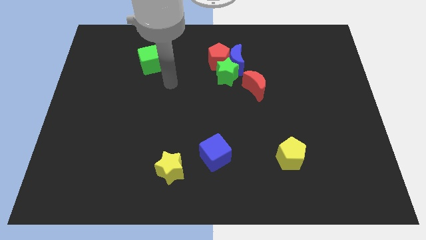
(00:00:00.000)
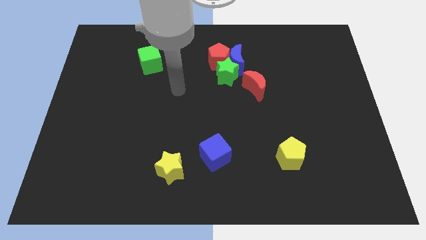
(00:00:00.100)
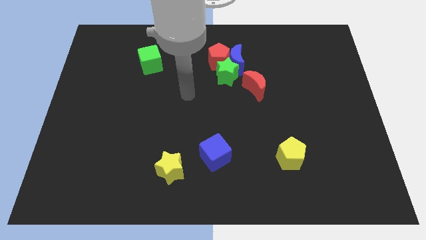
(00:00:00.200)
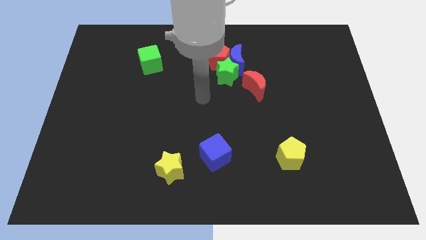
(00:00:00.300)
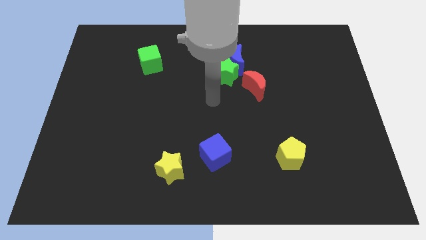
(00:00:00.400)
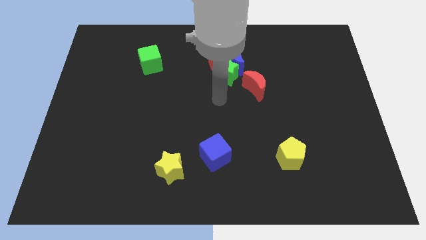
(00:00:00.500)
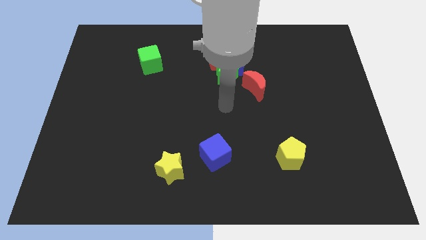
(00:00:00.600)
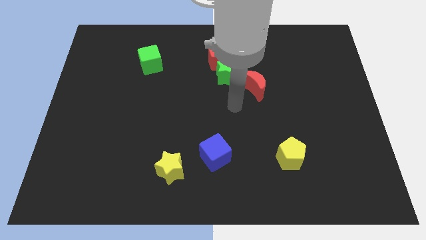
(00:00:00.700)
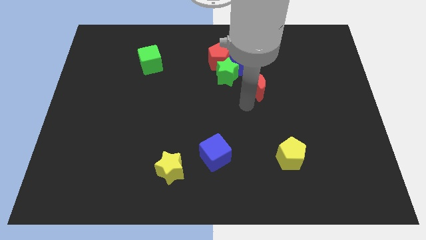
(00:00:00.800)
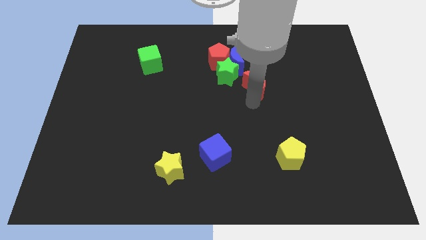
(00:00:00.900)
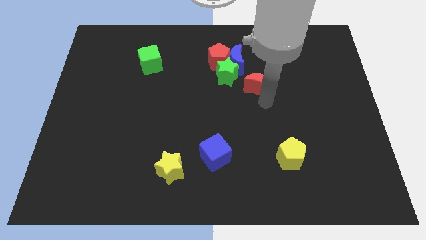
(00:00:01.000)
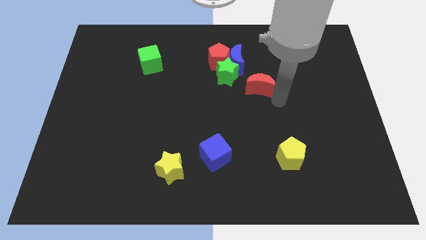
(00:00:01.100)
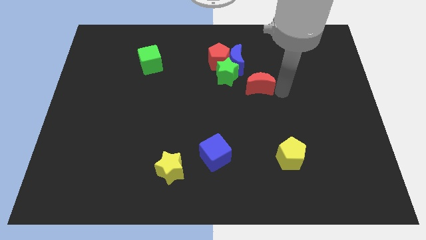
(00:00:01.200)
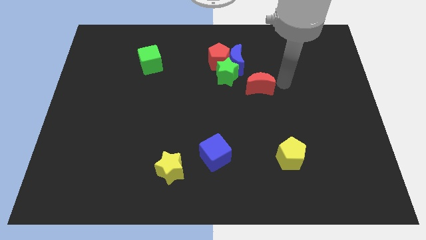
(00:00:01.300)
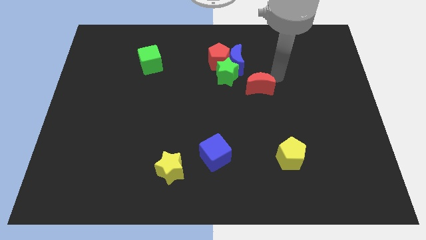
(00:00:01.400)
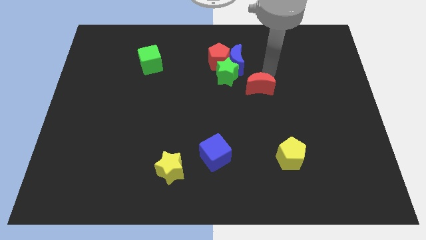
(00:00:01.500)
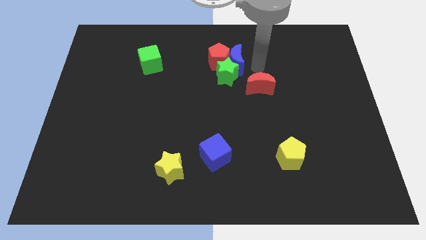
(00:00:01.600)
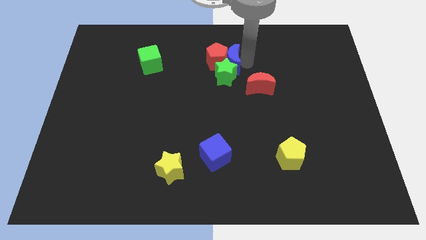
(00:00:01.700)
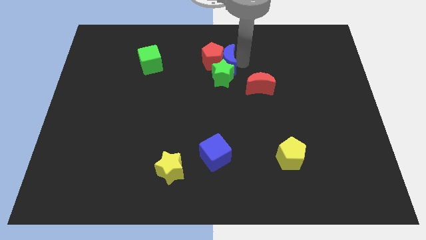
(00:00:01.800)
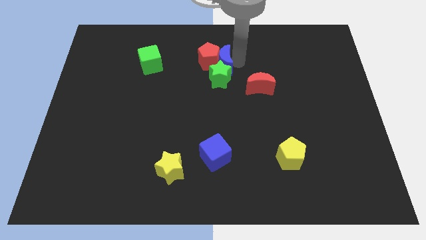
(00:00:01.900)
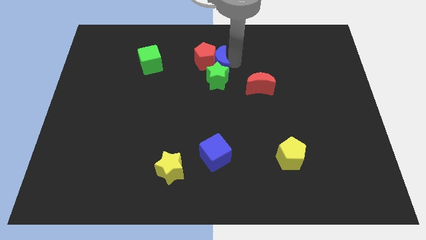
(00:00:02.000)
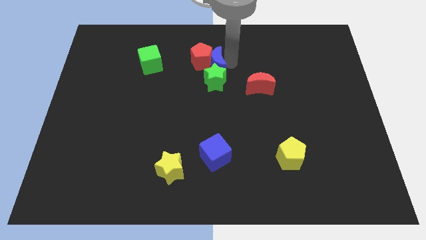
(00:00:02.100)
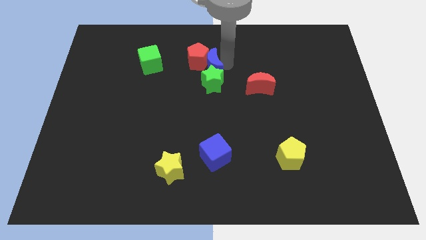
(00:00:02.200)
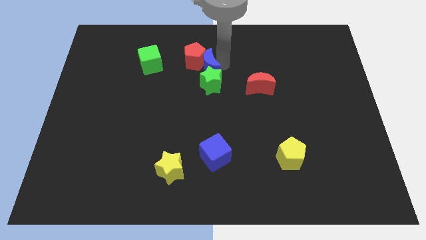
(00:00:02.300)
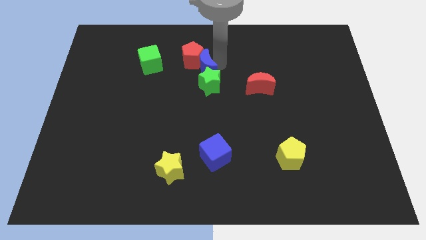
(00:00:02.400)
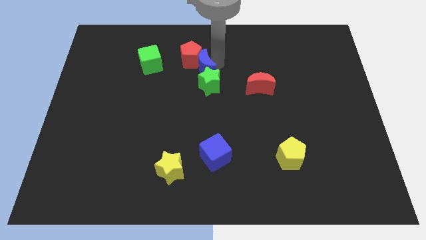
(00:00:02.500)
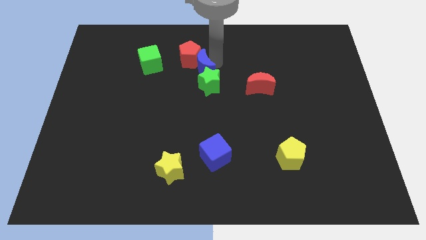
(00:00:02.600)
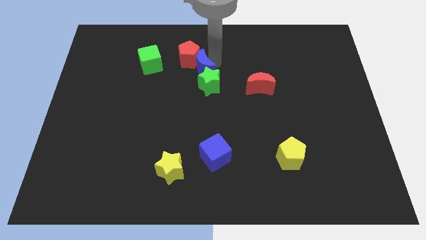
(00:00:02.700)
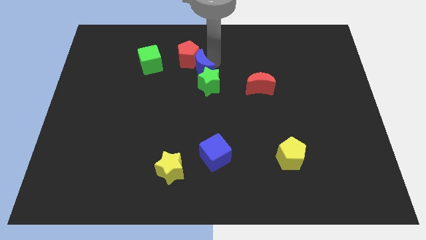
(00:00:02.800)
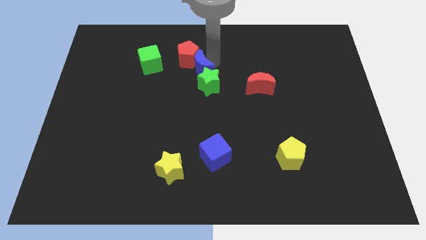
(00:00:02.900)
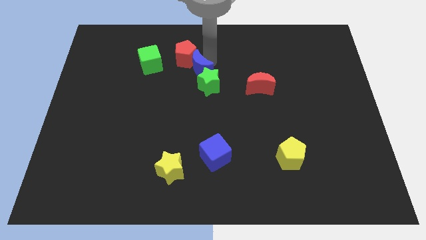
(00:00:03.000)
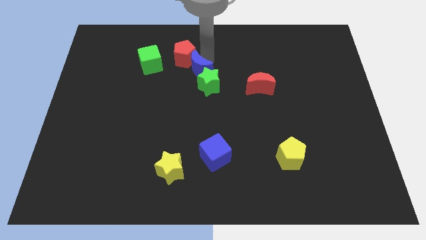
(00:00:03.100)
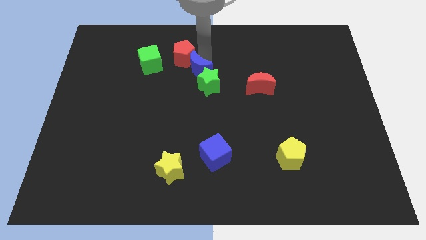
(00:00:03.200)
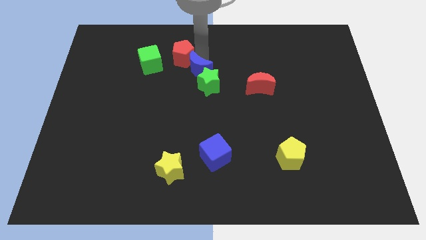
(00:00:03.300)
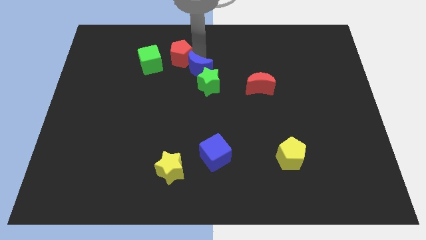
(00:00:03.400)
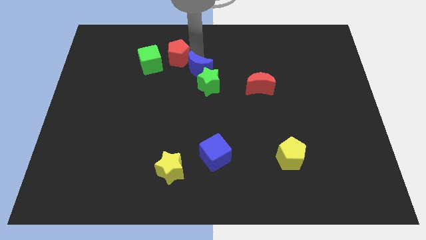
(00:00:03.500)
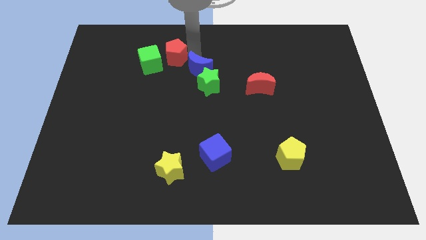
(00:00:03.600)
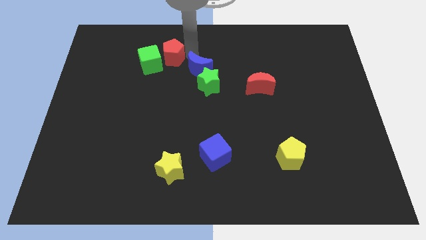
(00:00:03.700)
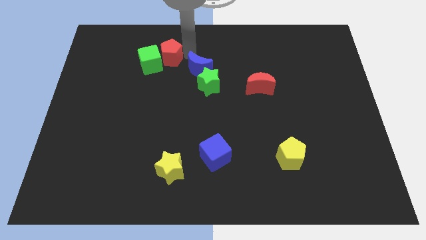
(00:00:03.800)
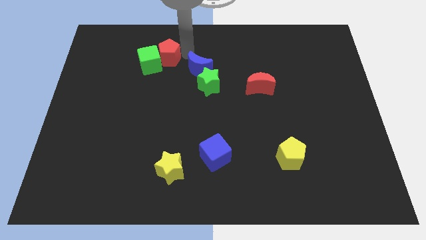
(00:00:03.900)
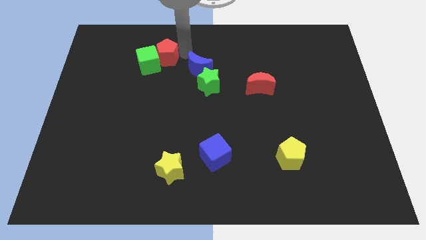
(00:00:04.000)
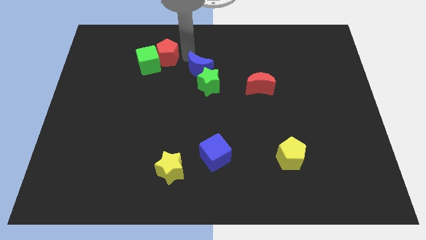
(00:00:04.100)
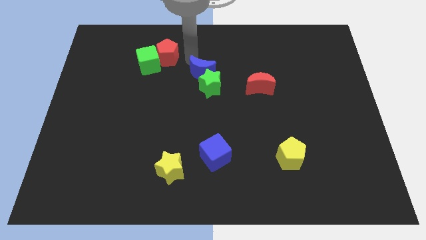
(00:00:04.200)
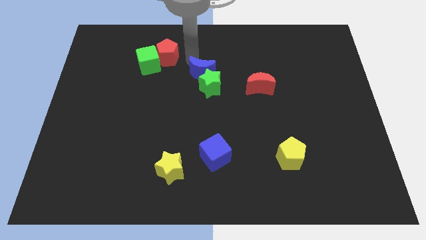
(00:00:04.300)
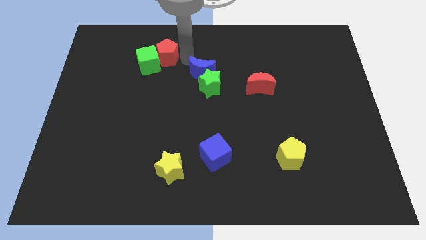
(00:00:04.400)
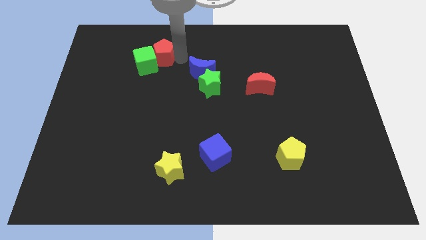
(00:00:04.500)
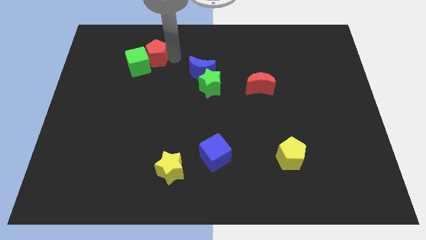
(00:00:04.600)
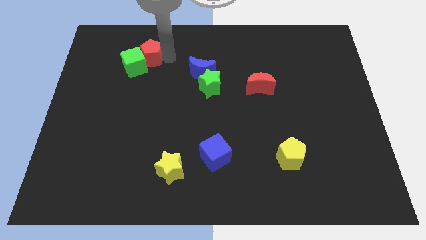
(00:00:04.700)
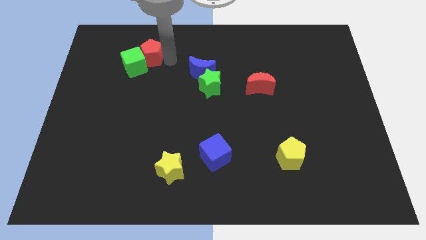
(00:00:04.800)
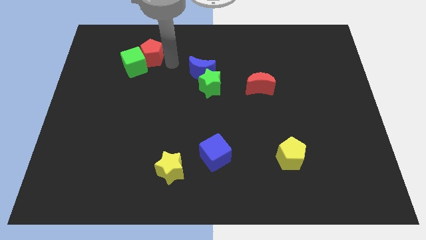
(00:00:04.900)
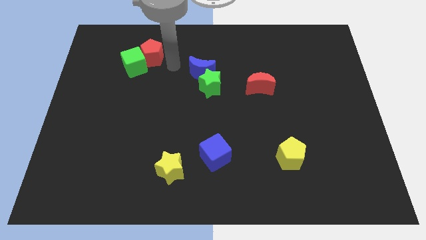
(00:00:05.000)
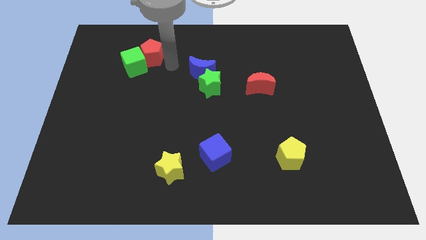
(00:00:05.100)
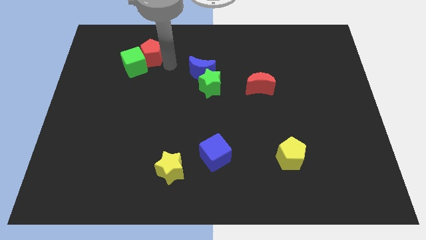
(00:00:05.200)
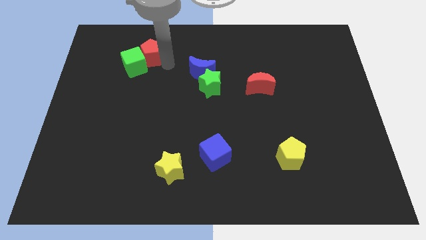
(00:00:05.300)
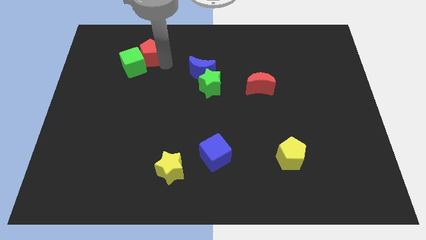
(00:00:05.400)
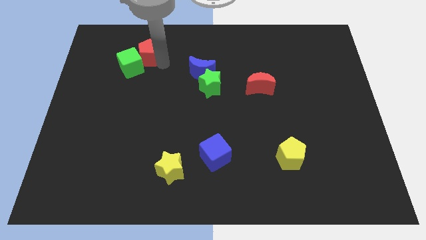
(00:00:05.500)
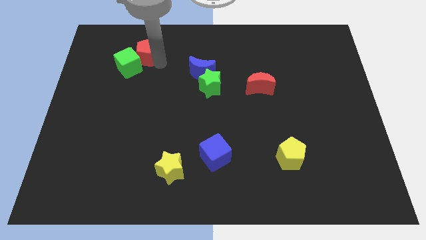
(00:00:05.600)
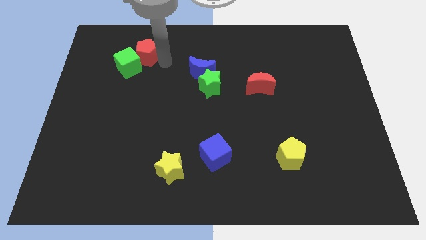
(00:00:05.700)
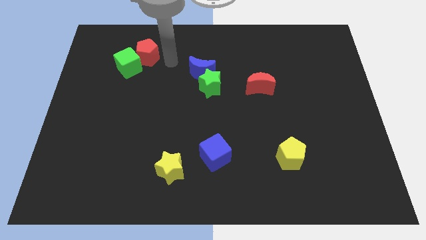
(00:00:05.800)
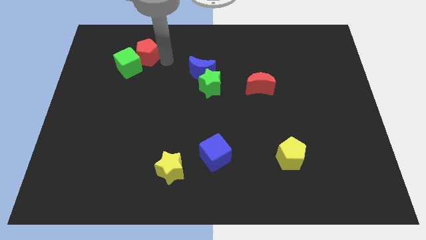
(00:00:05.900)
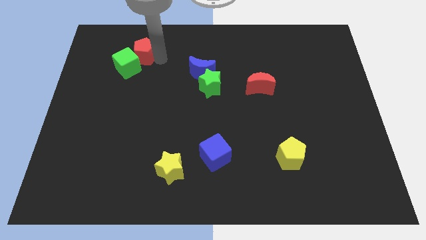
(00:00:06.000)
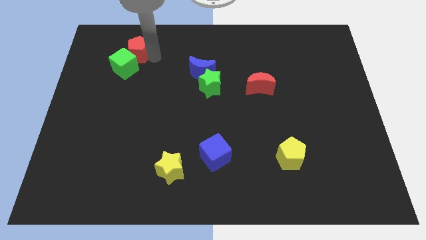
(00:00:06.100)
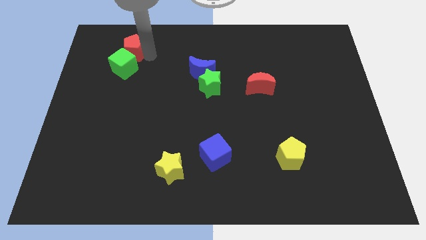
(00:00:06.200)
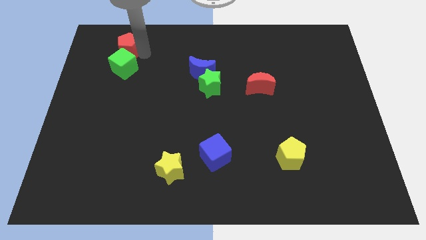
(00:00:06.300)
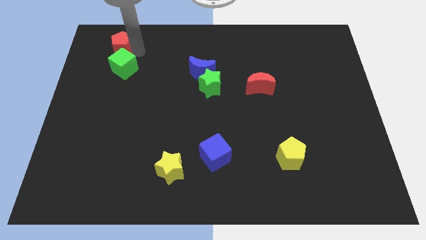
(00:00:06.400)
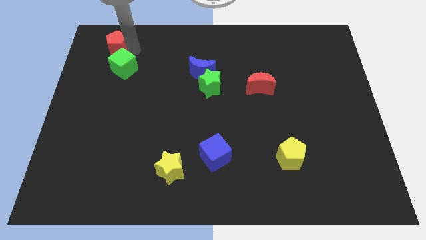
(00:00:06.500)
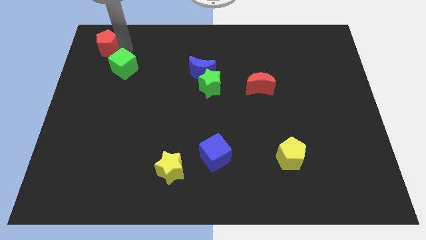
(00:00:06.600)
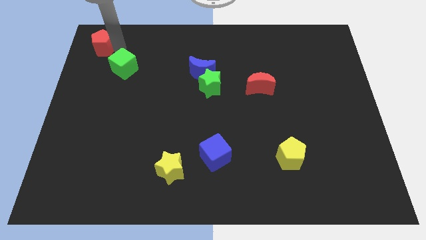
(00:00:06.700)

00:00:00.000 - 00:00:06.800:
put the red pentagon to the top left

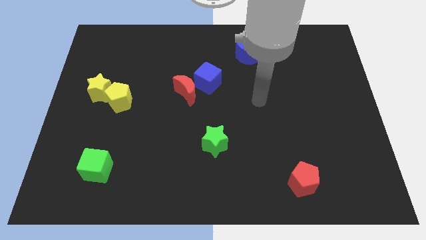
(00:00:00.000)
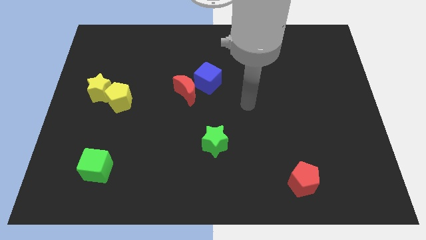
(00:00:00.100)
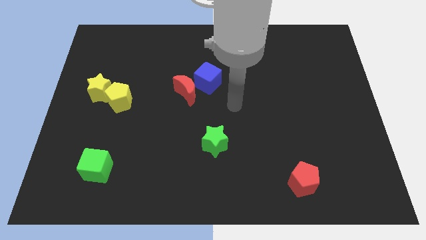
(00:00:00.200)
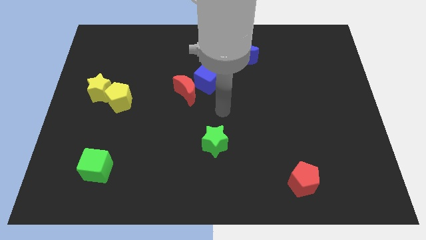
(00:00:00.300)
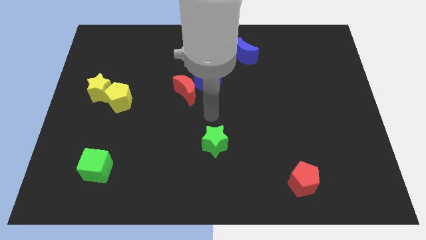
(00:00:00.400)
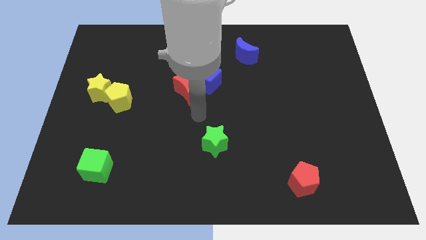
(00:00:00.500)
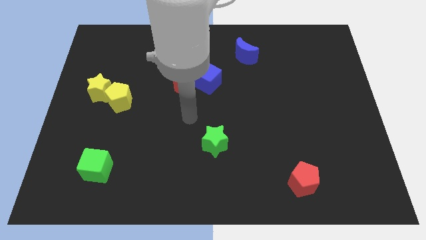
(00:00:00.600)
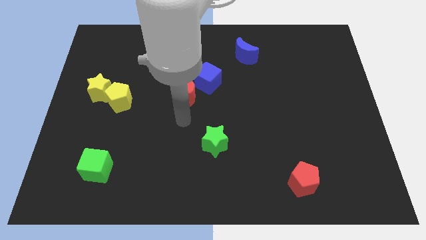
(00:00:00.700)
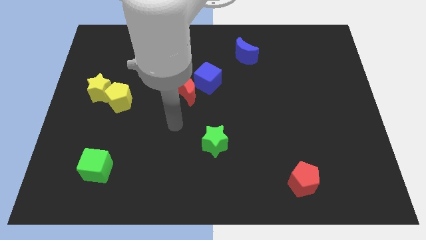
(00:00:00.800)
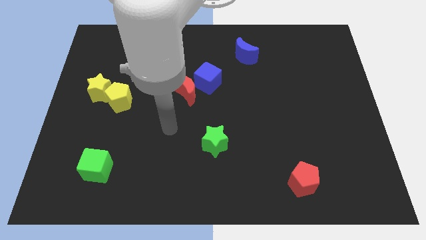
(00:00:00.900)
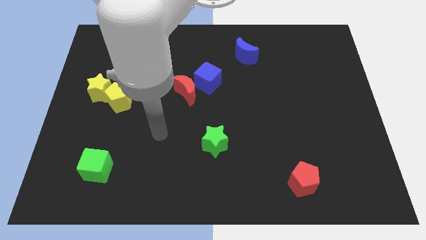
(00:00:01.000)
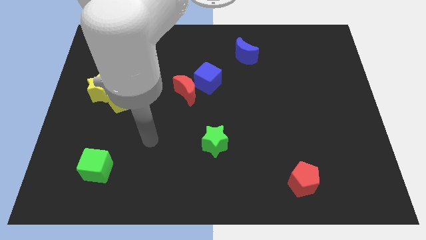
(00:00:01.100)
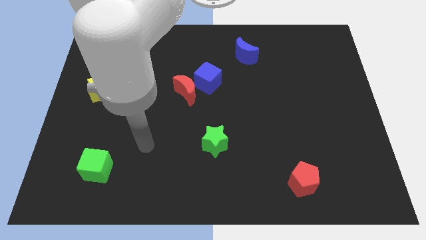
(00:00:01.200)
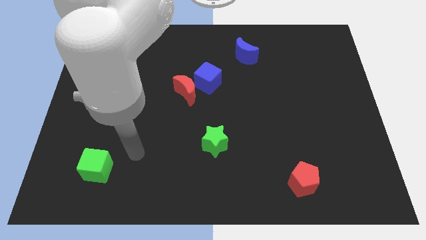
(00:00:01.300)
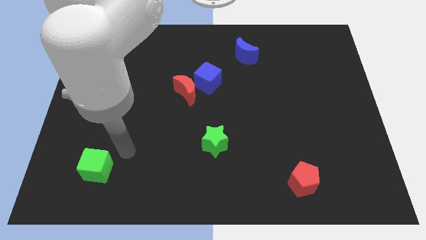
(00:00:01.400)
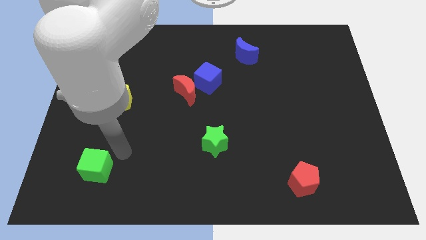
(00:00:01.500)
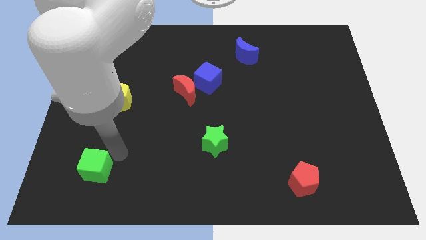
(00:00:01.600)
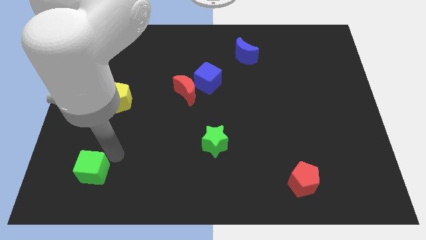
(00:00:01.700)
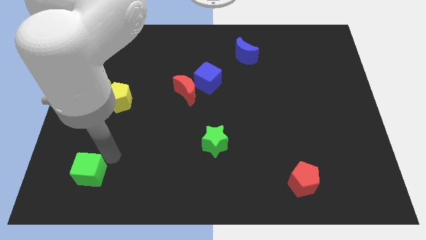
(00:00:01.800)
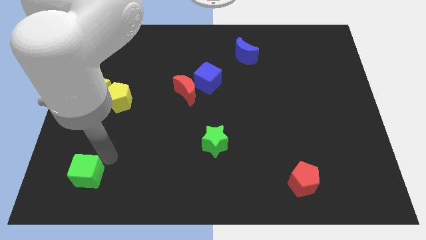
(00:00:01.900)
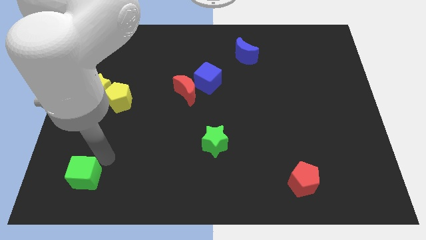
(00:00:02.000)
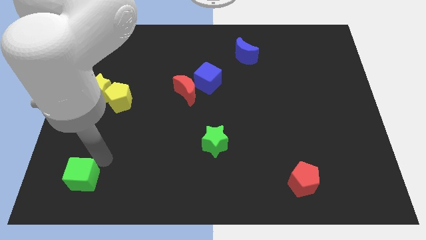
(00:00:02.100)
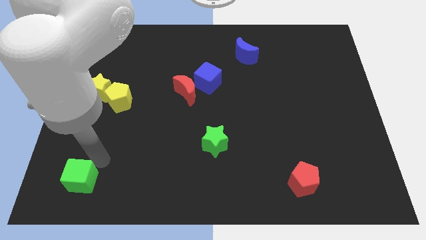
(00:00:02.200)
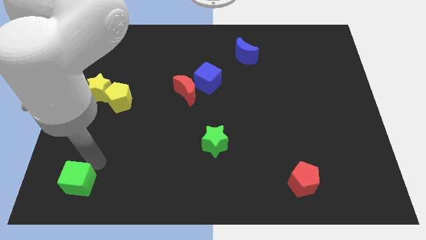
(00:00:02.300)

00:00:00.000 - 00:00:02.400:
push the green cube to the bottom left of the board
